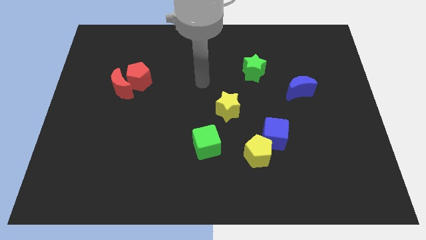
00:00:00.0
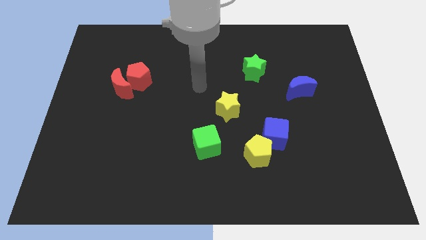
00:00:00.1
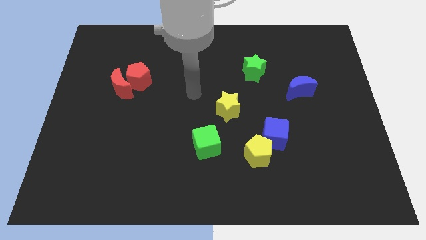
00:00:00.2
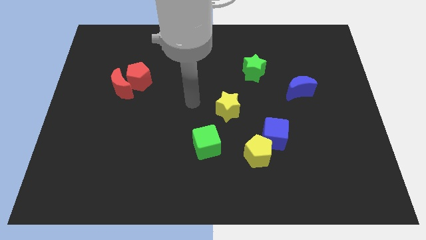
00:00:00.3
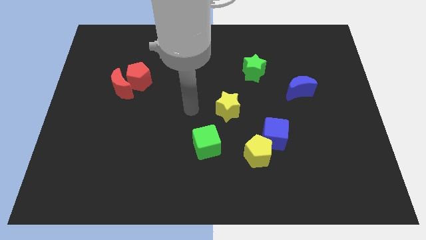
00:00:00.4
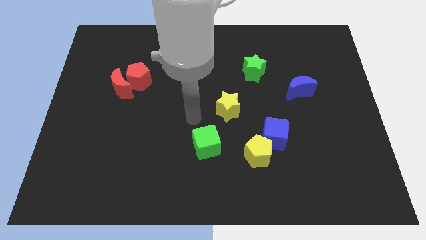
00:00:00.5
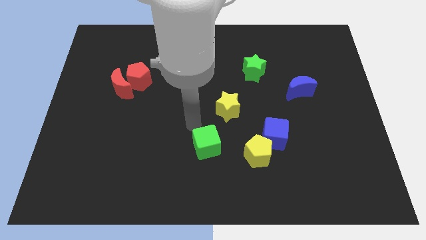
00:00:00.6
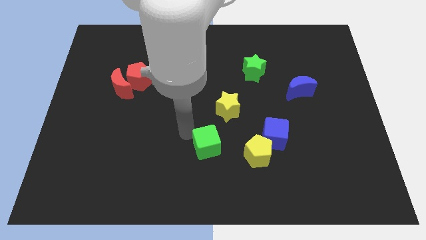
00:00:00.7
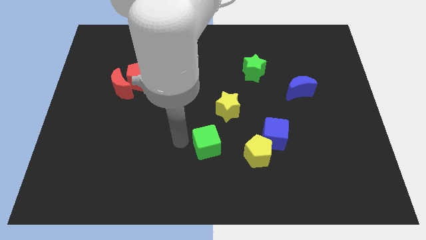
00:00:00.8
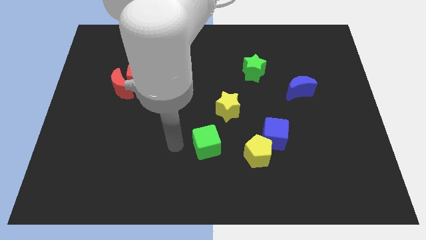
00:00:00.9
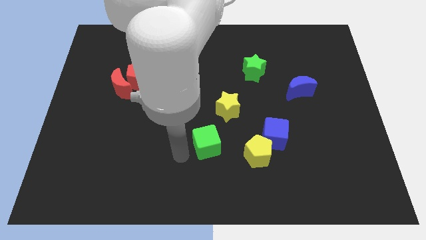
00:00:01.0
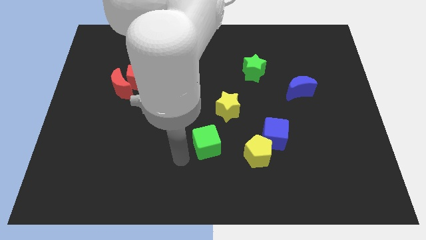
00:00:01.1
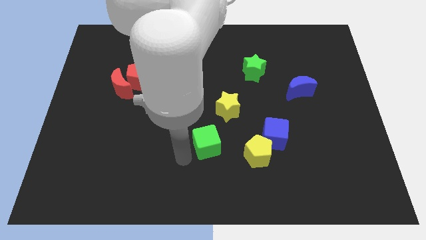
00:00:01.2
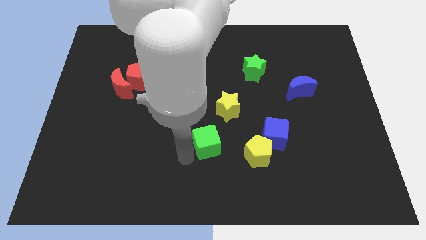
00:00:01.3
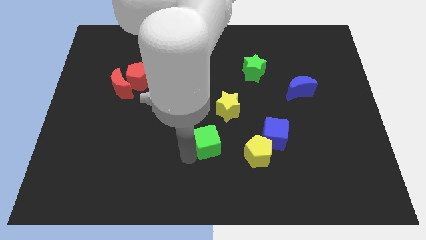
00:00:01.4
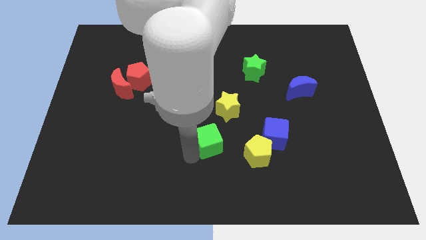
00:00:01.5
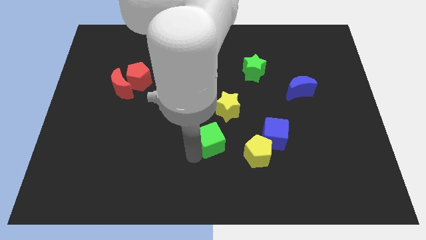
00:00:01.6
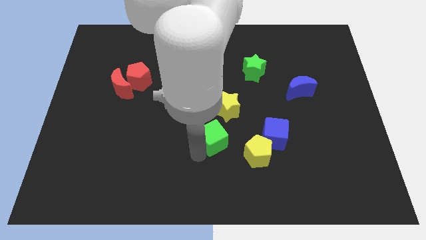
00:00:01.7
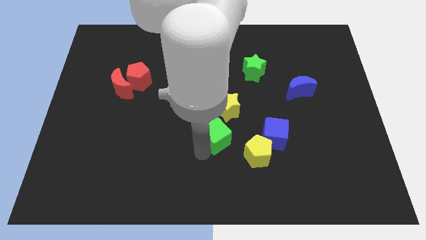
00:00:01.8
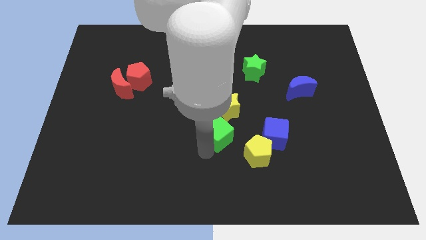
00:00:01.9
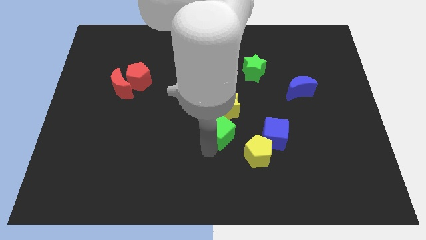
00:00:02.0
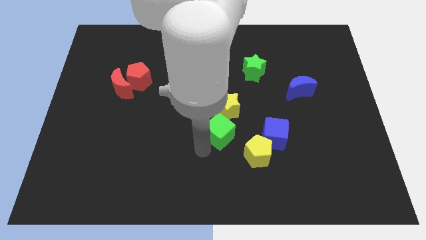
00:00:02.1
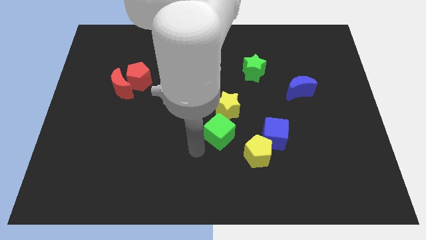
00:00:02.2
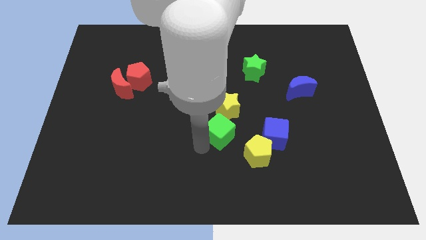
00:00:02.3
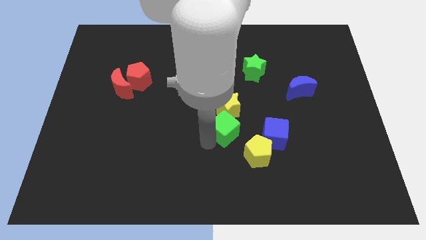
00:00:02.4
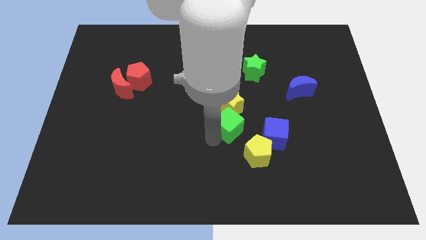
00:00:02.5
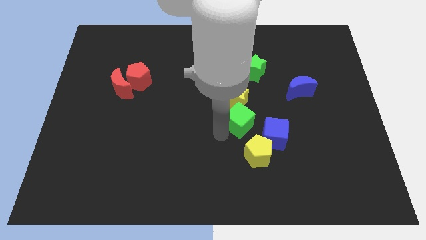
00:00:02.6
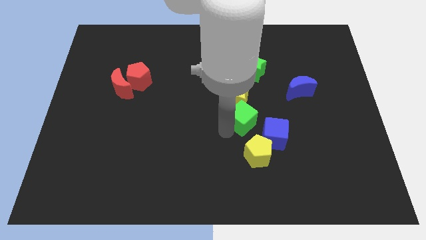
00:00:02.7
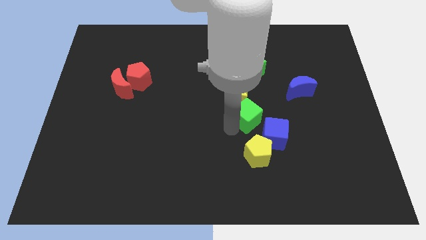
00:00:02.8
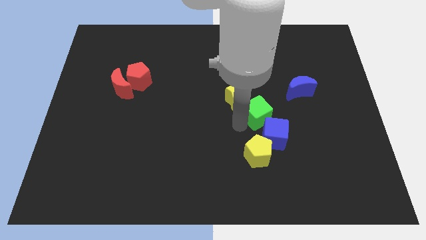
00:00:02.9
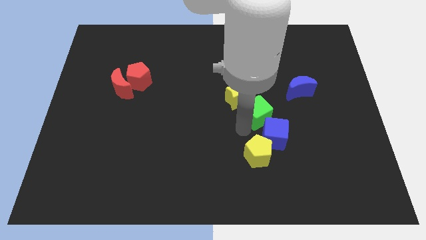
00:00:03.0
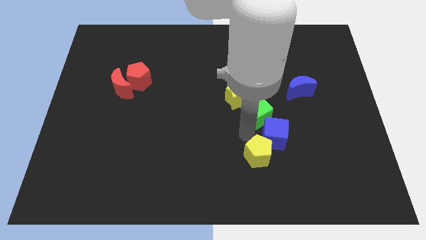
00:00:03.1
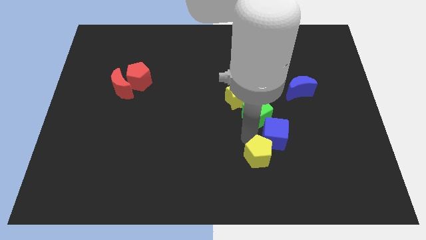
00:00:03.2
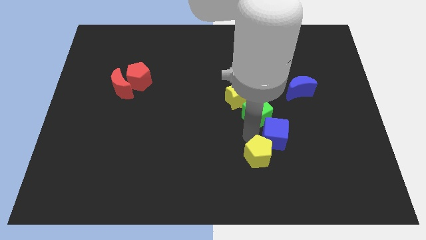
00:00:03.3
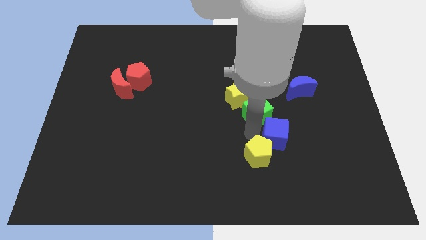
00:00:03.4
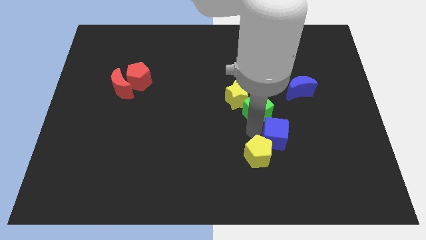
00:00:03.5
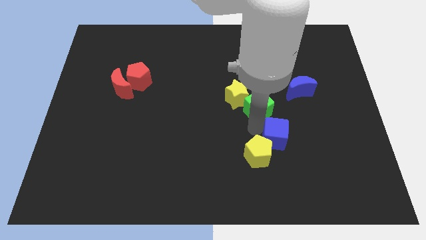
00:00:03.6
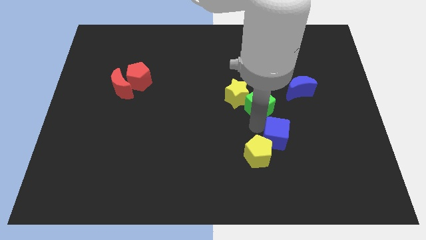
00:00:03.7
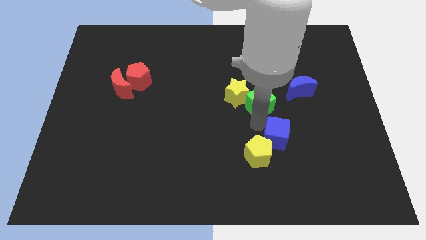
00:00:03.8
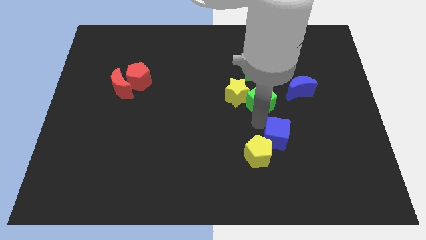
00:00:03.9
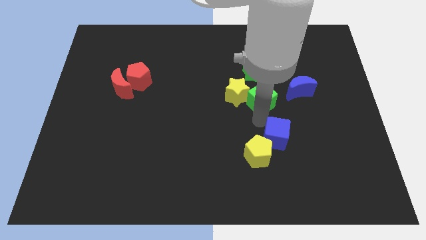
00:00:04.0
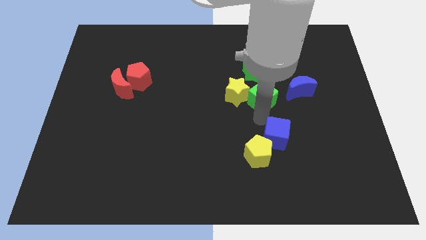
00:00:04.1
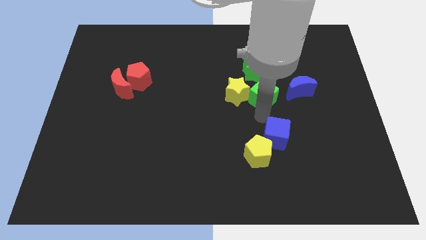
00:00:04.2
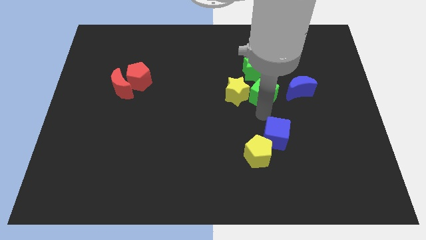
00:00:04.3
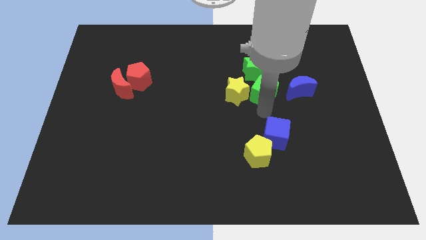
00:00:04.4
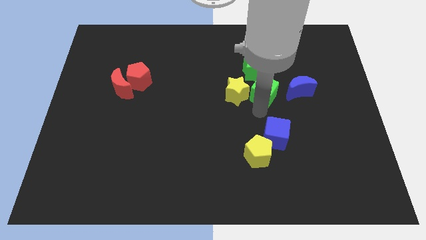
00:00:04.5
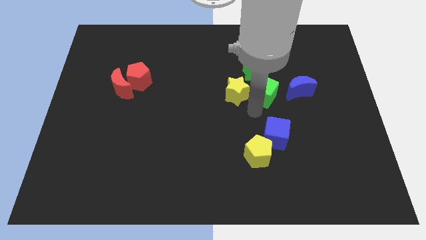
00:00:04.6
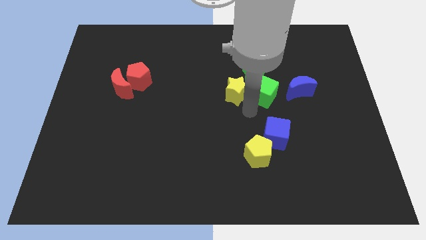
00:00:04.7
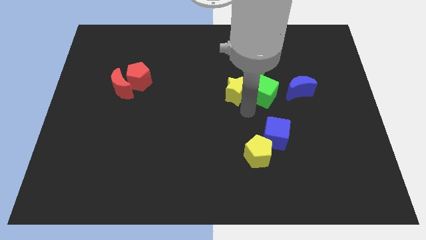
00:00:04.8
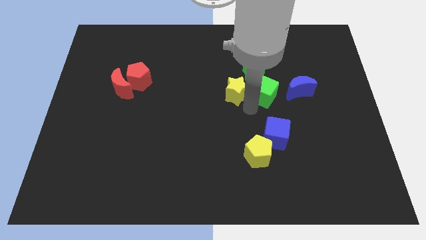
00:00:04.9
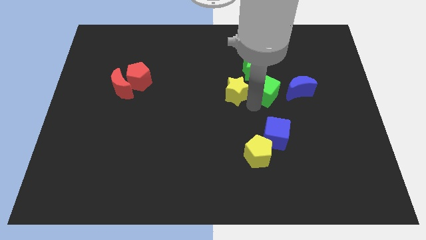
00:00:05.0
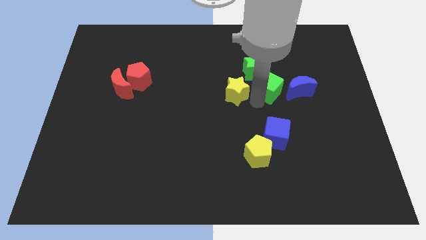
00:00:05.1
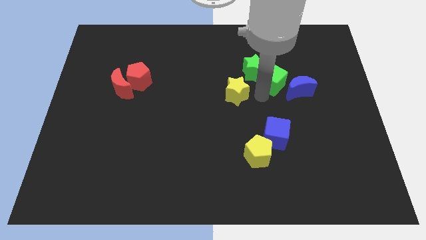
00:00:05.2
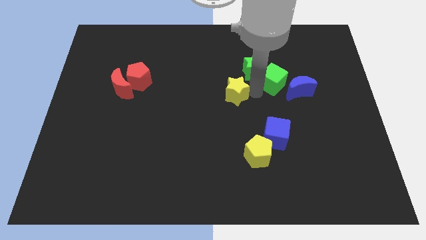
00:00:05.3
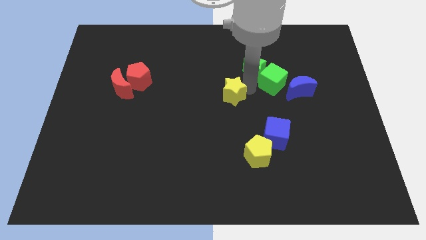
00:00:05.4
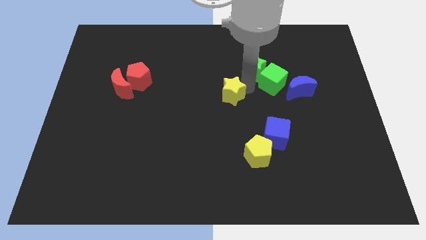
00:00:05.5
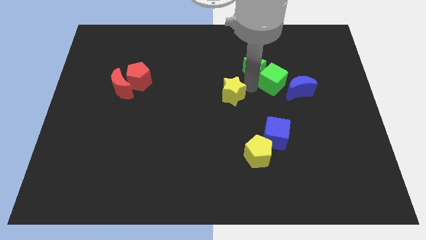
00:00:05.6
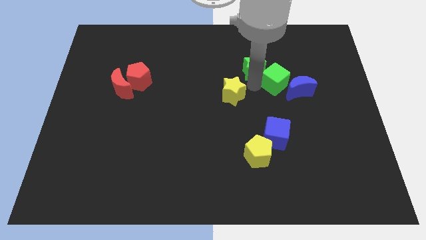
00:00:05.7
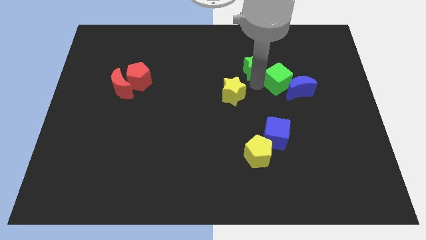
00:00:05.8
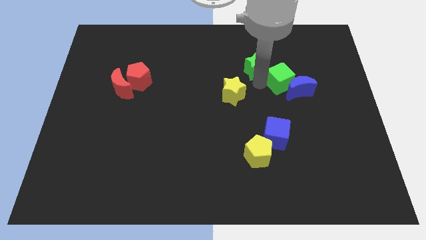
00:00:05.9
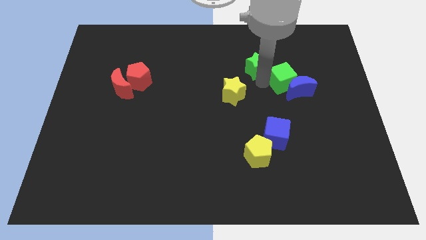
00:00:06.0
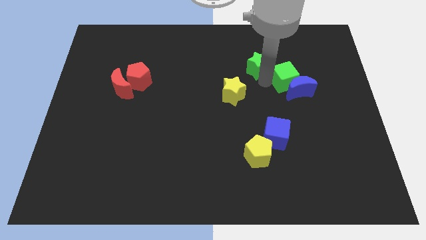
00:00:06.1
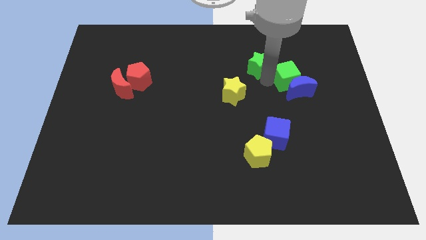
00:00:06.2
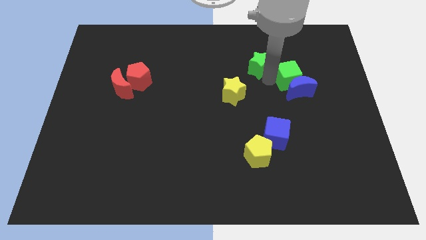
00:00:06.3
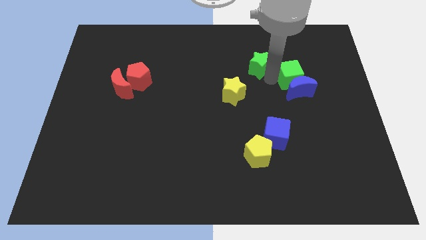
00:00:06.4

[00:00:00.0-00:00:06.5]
slide the green cube diagonally up and to the right of the blue moon

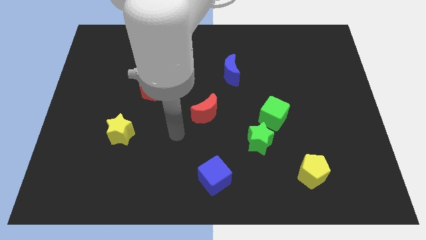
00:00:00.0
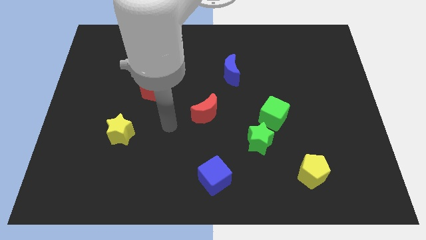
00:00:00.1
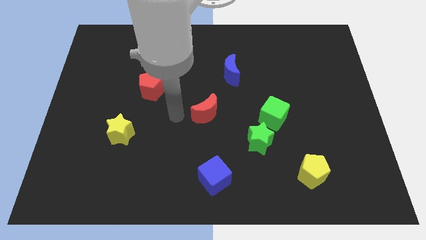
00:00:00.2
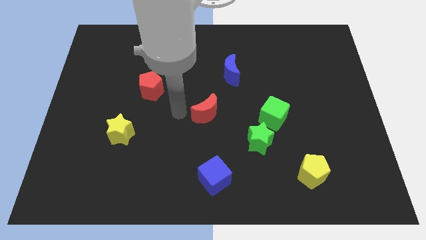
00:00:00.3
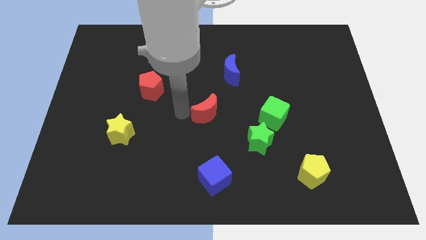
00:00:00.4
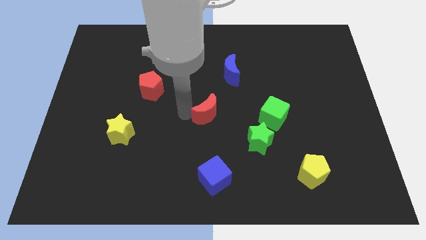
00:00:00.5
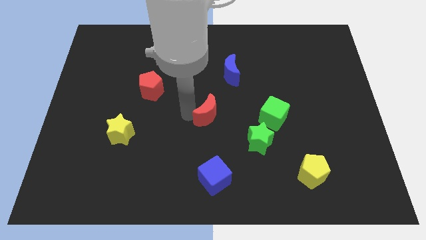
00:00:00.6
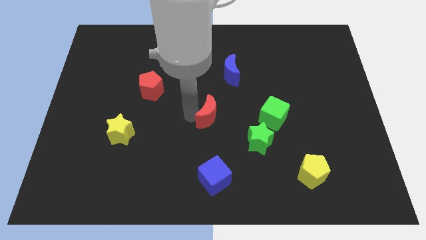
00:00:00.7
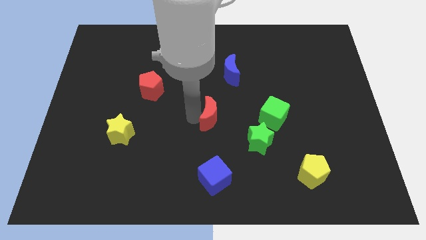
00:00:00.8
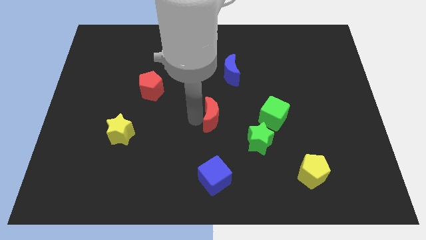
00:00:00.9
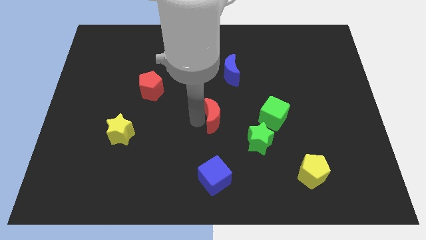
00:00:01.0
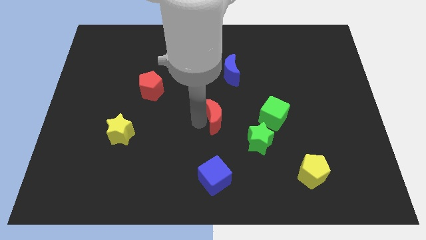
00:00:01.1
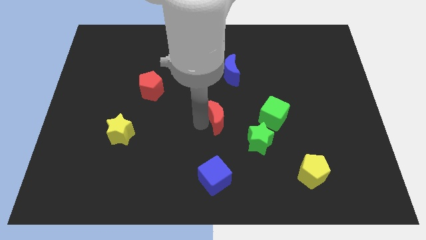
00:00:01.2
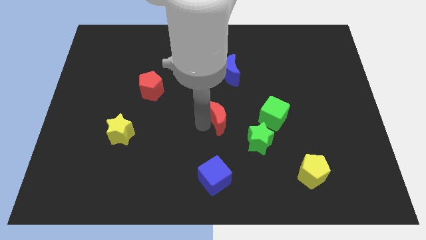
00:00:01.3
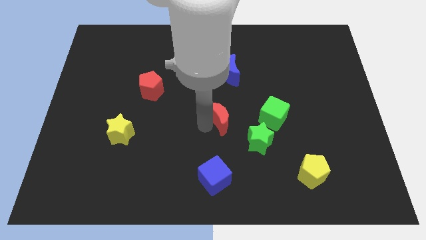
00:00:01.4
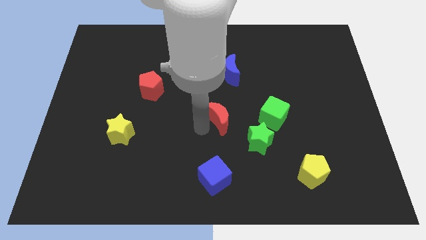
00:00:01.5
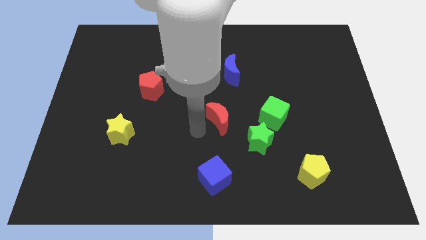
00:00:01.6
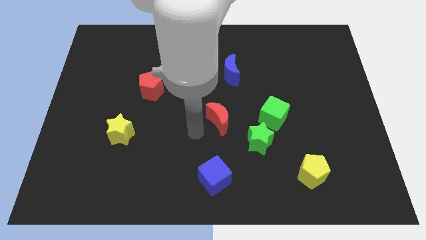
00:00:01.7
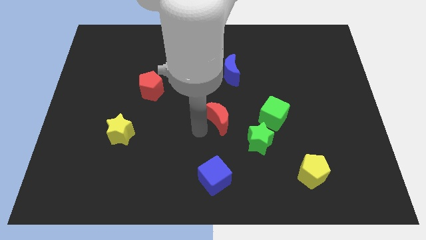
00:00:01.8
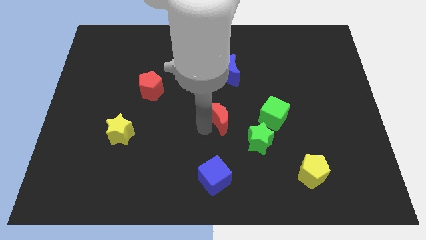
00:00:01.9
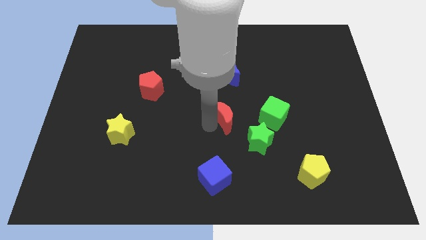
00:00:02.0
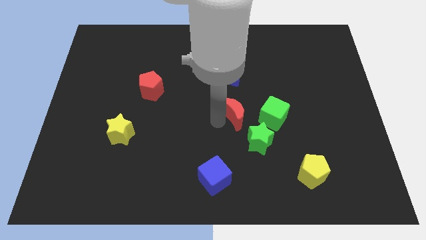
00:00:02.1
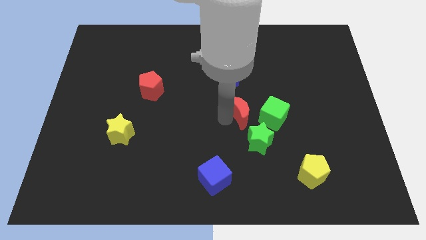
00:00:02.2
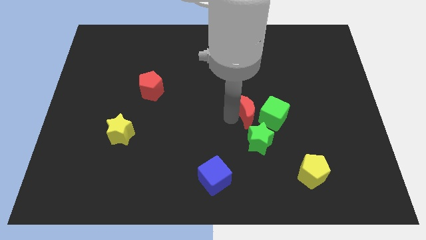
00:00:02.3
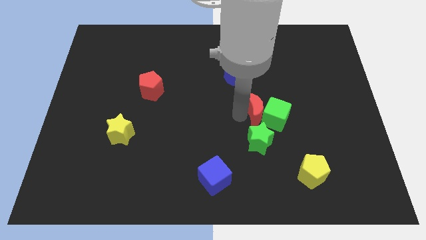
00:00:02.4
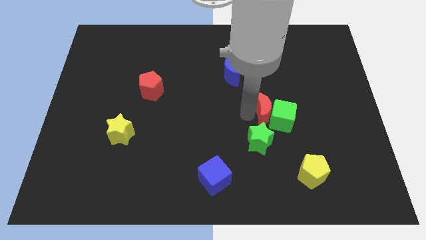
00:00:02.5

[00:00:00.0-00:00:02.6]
slide the red moon diagonally up and to the right of the green star
